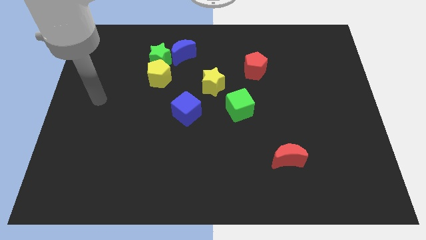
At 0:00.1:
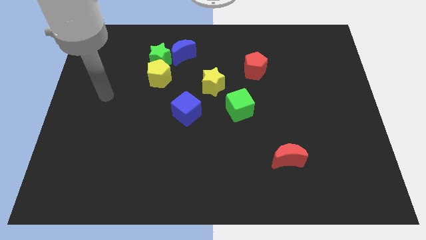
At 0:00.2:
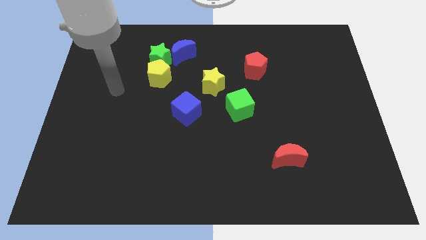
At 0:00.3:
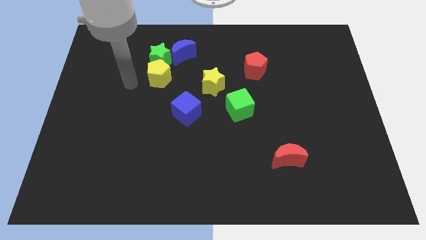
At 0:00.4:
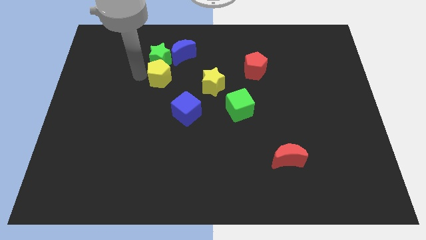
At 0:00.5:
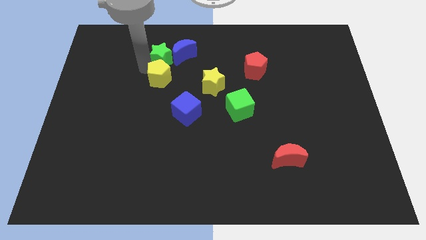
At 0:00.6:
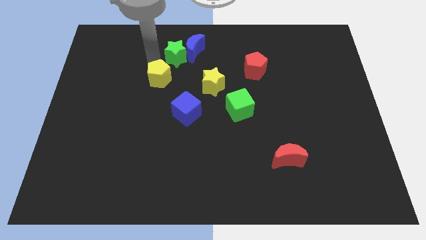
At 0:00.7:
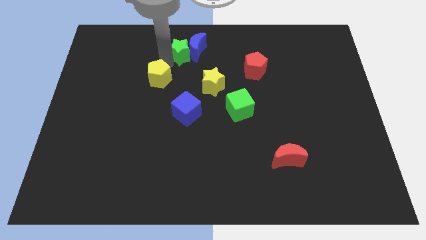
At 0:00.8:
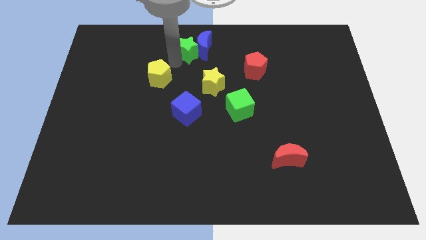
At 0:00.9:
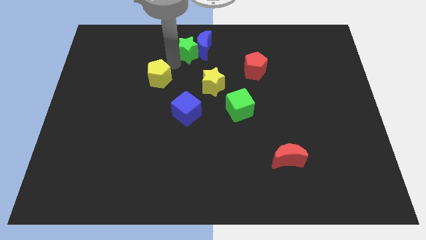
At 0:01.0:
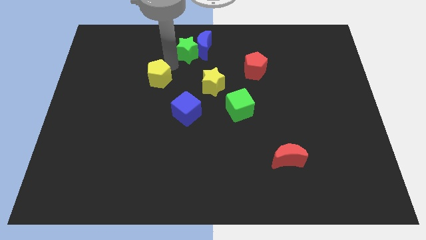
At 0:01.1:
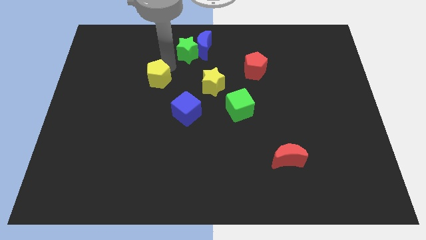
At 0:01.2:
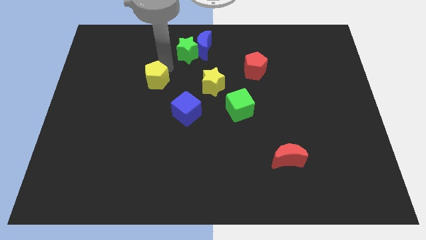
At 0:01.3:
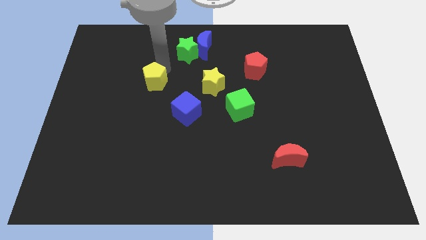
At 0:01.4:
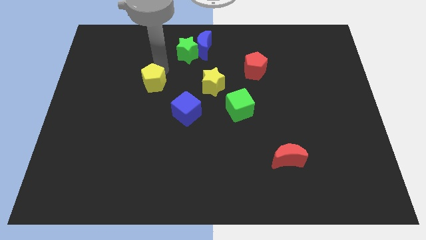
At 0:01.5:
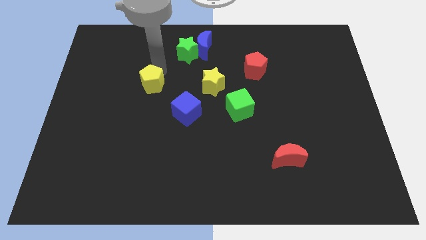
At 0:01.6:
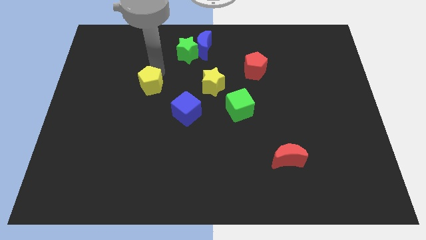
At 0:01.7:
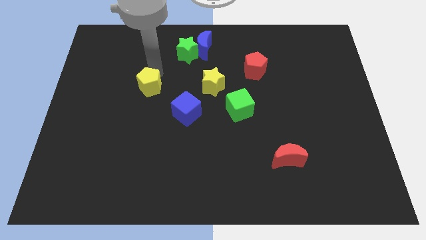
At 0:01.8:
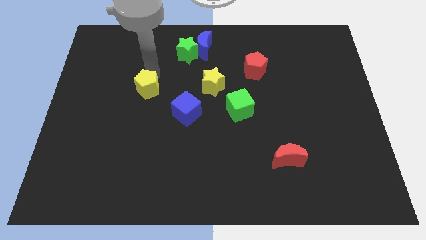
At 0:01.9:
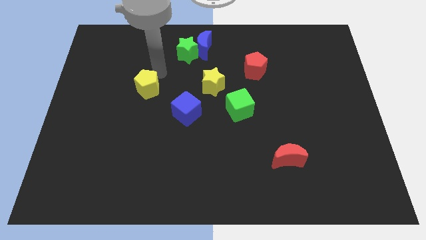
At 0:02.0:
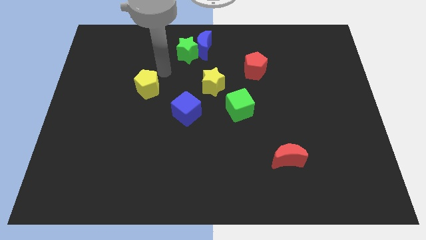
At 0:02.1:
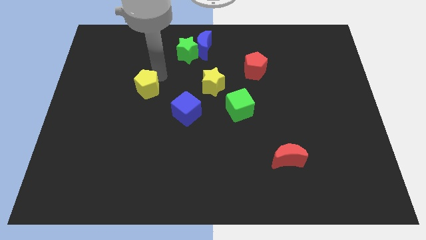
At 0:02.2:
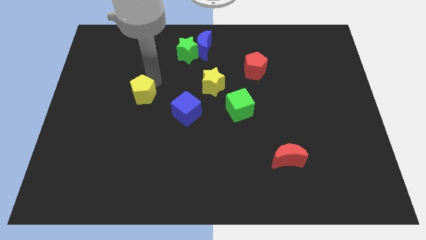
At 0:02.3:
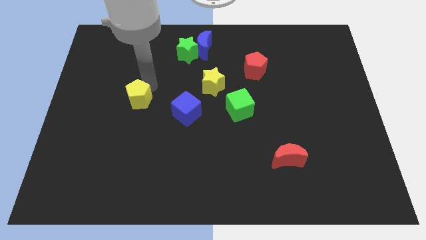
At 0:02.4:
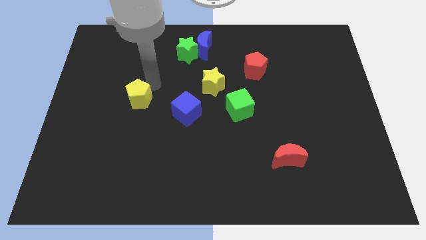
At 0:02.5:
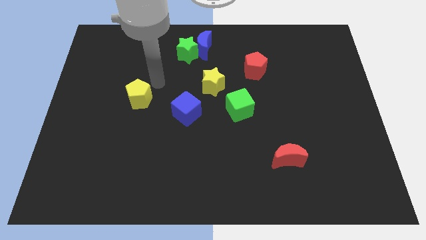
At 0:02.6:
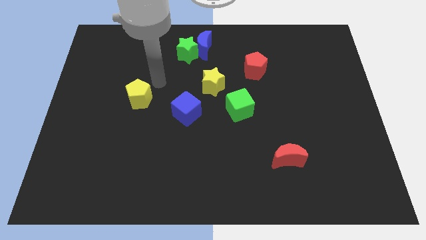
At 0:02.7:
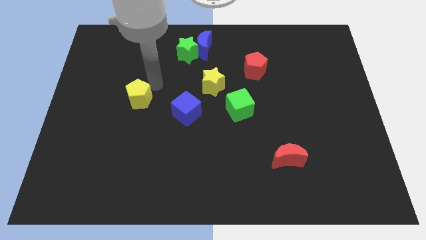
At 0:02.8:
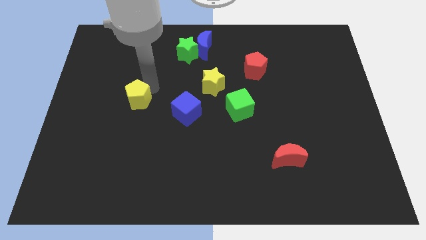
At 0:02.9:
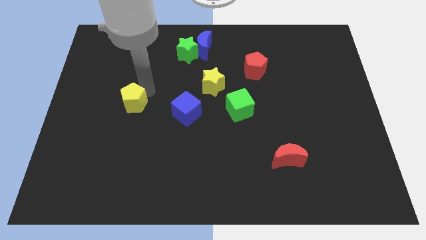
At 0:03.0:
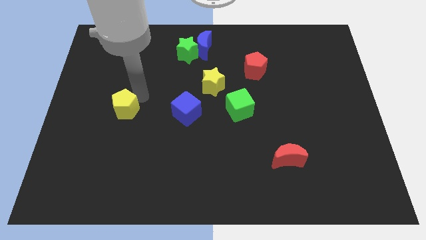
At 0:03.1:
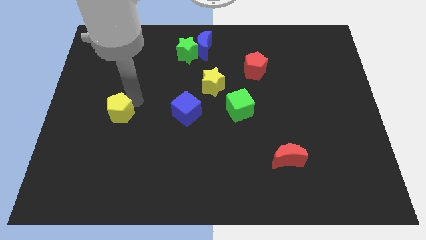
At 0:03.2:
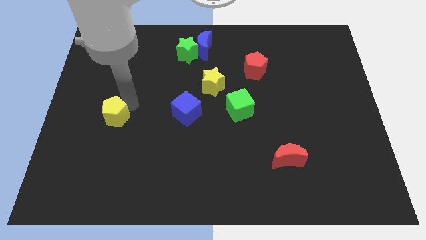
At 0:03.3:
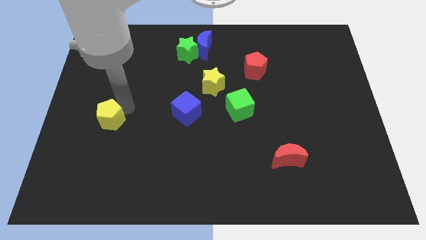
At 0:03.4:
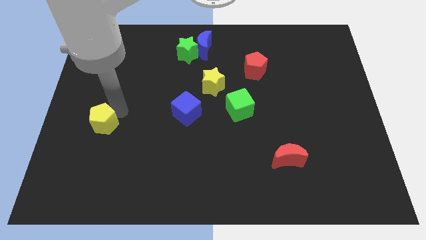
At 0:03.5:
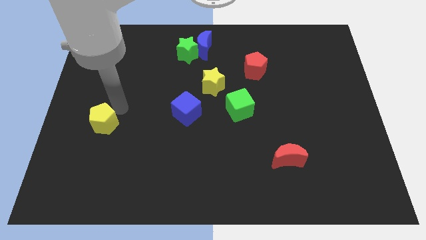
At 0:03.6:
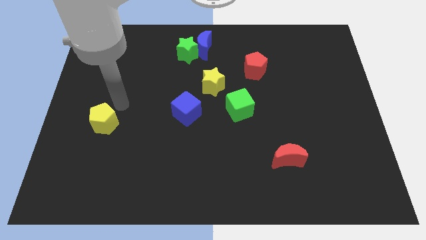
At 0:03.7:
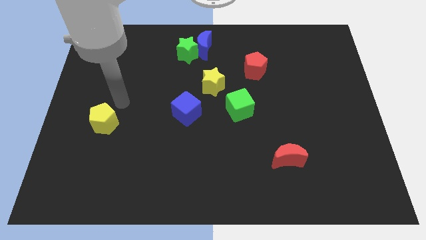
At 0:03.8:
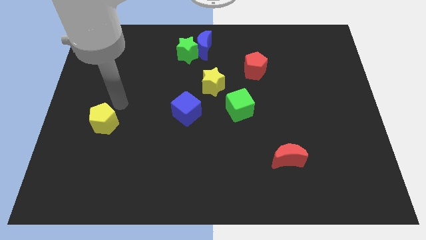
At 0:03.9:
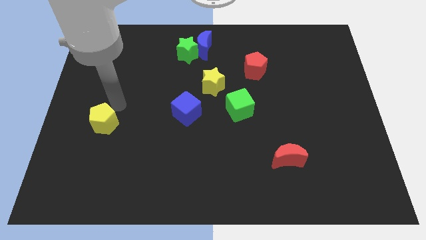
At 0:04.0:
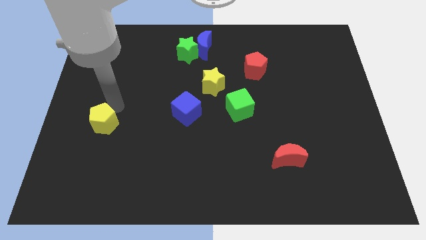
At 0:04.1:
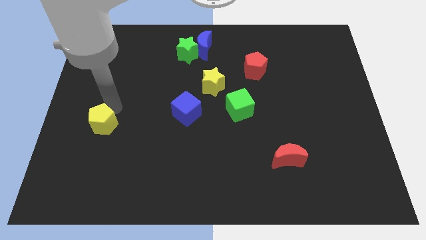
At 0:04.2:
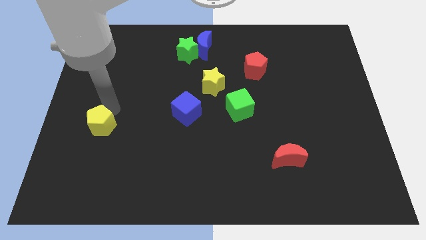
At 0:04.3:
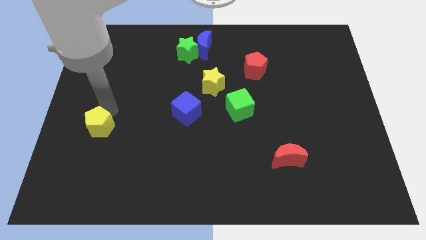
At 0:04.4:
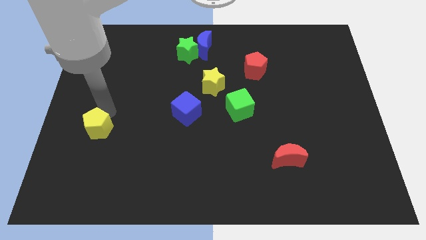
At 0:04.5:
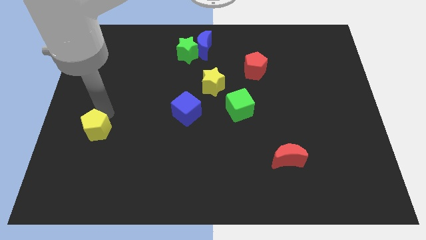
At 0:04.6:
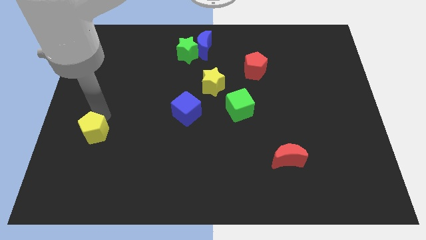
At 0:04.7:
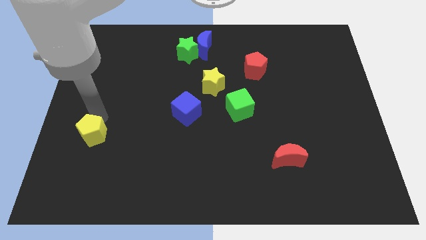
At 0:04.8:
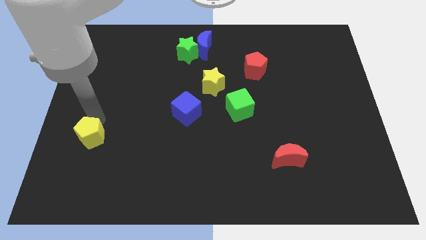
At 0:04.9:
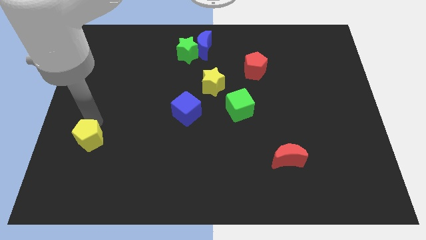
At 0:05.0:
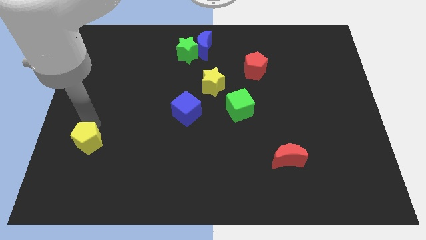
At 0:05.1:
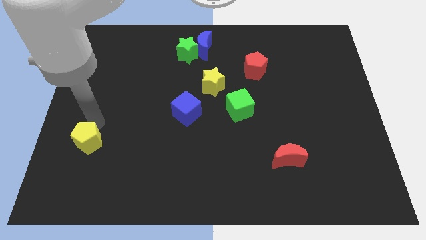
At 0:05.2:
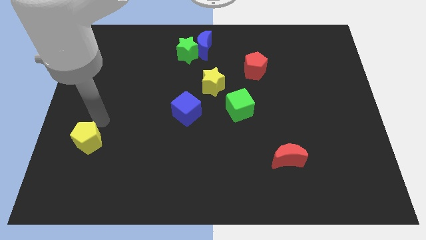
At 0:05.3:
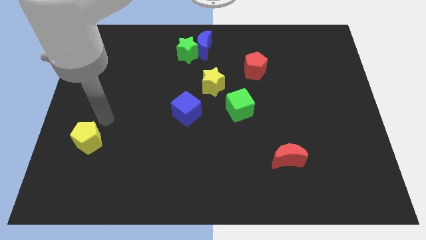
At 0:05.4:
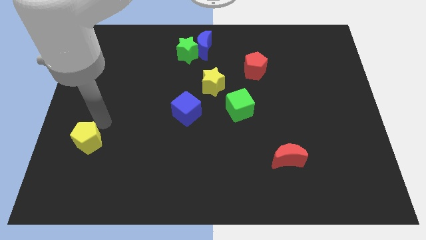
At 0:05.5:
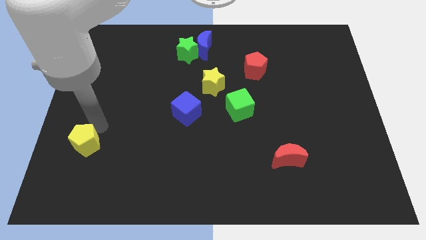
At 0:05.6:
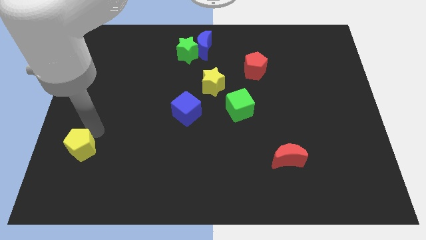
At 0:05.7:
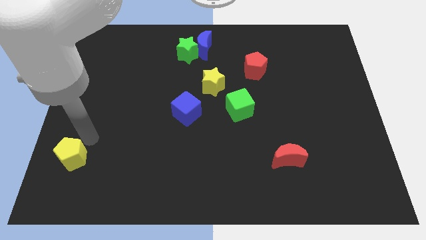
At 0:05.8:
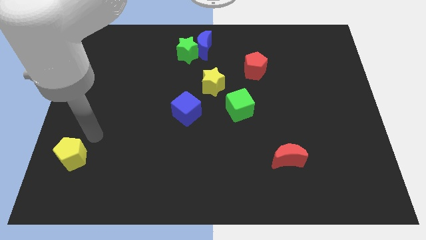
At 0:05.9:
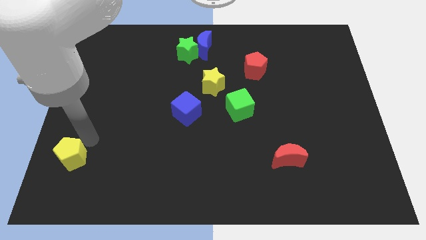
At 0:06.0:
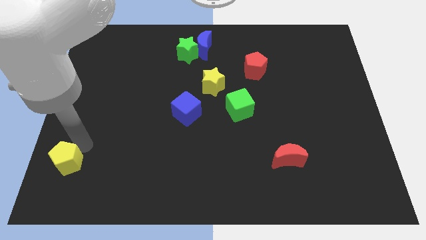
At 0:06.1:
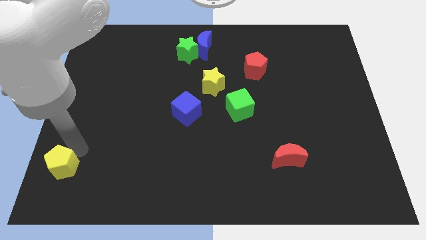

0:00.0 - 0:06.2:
slide the yellow pentagon to the bottom left of the board
